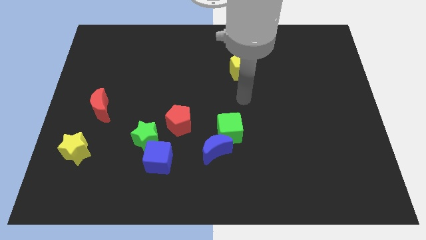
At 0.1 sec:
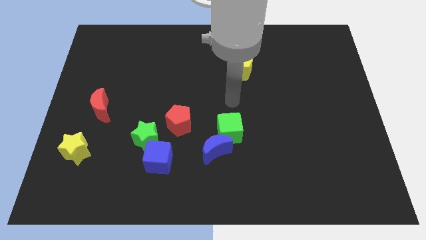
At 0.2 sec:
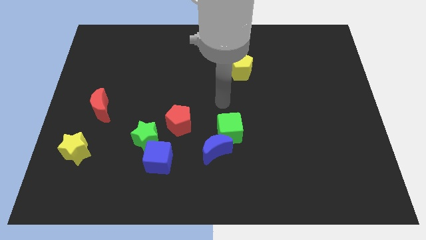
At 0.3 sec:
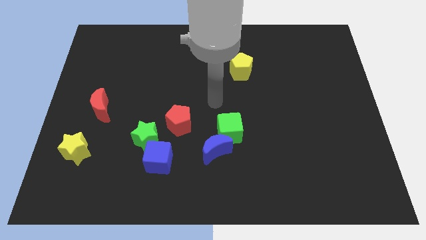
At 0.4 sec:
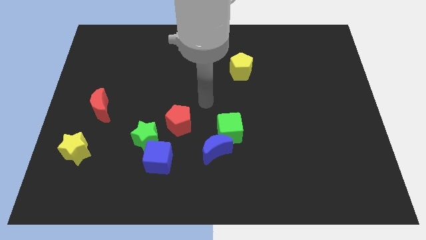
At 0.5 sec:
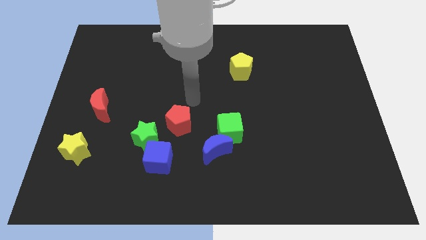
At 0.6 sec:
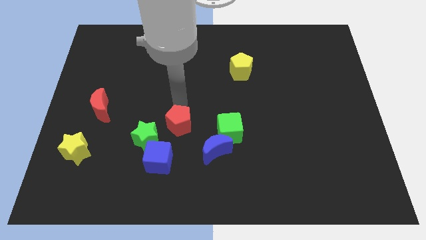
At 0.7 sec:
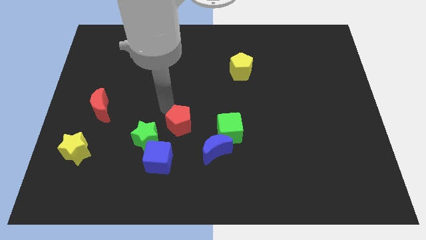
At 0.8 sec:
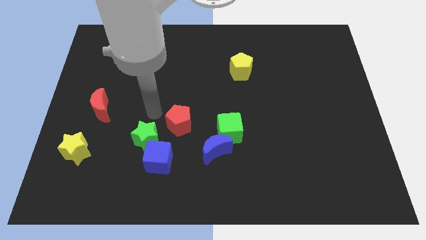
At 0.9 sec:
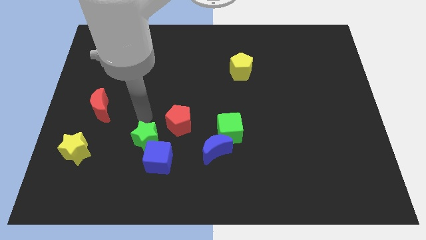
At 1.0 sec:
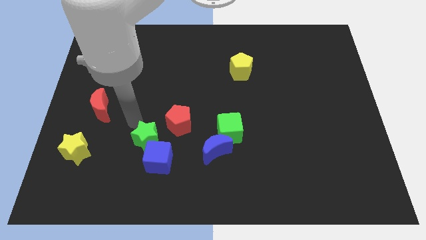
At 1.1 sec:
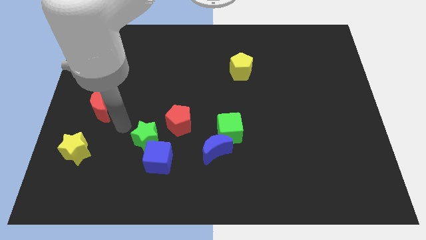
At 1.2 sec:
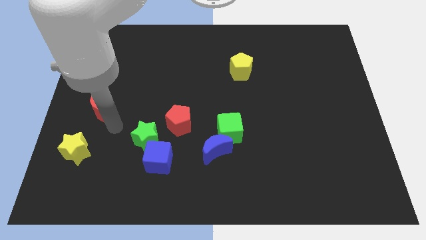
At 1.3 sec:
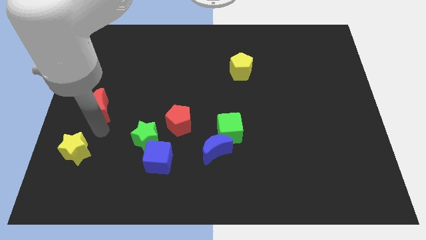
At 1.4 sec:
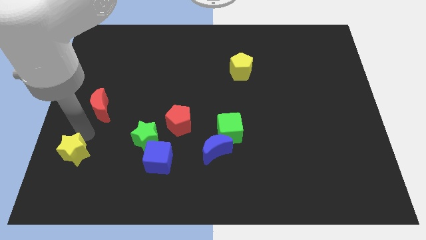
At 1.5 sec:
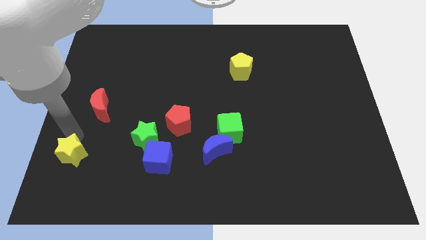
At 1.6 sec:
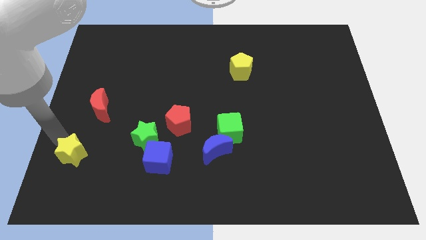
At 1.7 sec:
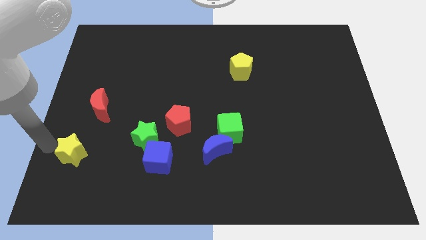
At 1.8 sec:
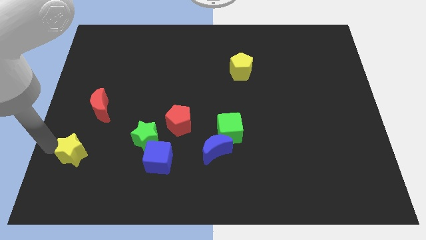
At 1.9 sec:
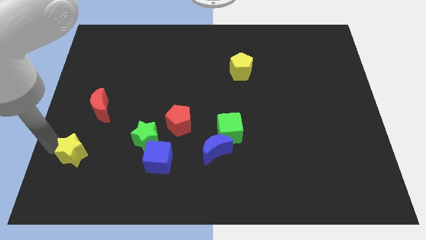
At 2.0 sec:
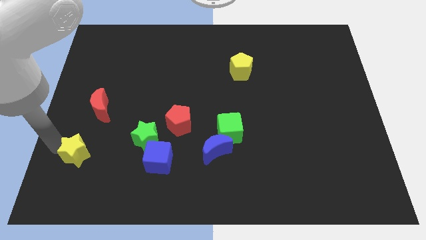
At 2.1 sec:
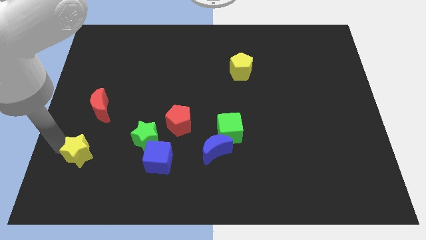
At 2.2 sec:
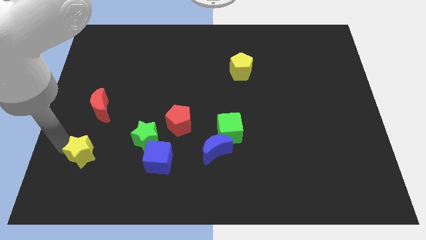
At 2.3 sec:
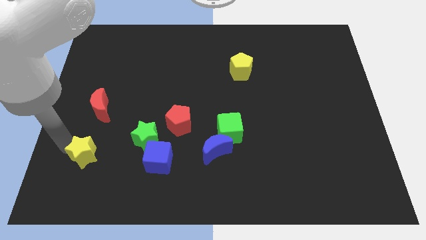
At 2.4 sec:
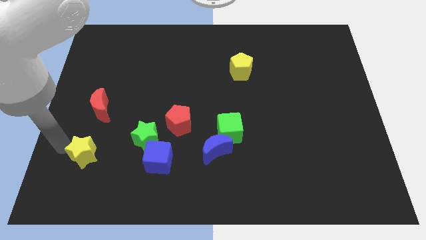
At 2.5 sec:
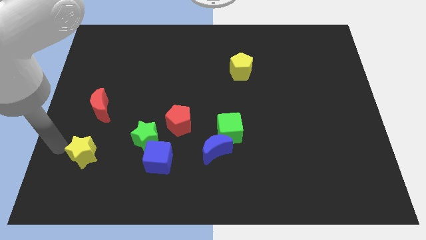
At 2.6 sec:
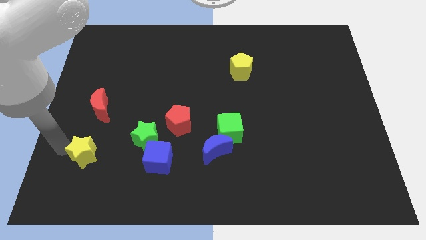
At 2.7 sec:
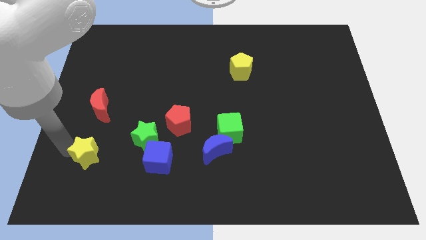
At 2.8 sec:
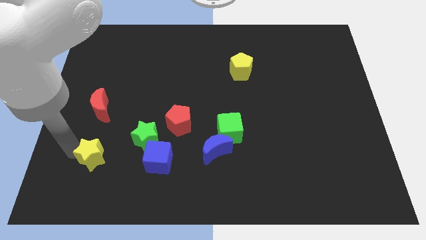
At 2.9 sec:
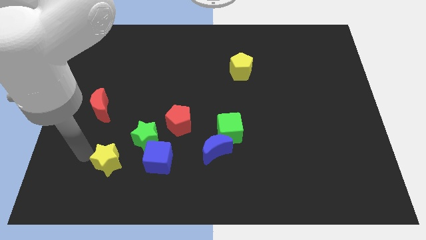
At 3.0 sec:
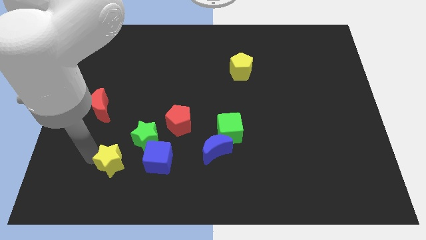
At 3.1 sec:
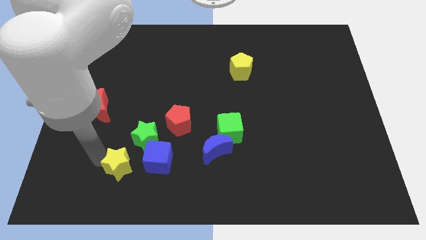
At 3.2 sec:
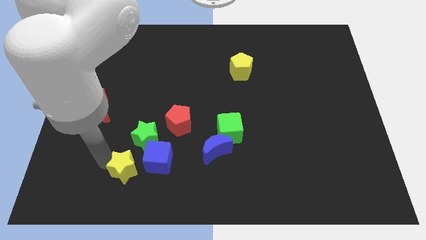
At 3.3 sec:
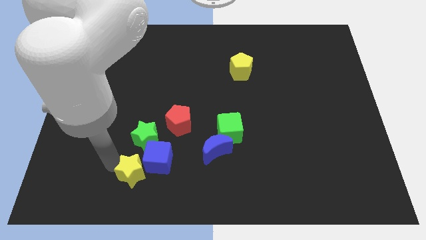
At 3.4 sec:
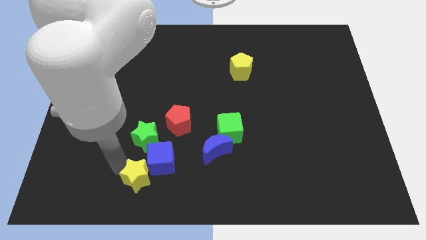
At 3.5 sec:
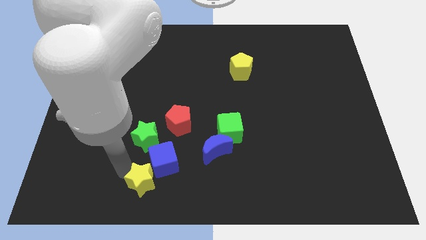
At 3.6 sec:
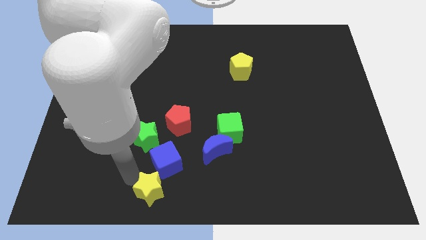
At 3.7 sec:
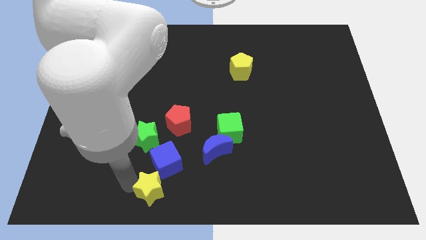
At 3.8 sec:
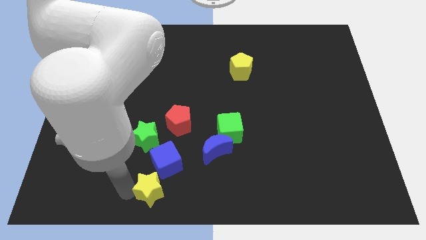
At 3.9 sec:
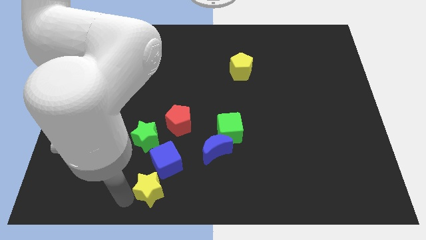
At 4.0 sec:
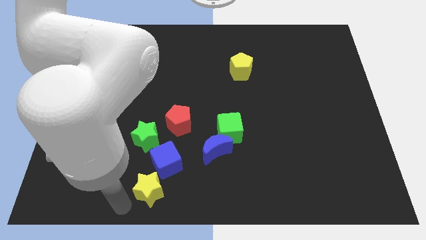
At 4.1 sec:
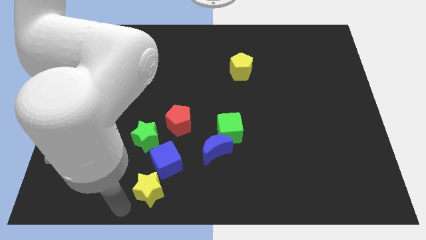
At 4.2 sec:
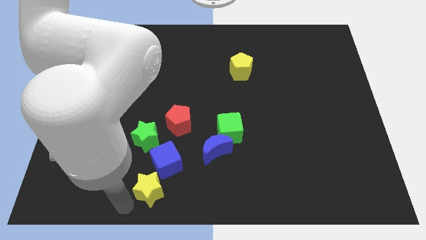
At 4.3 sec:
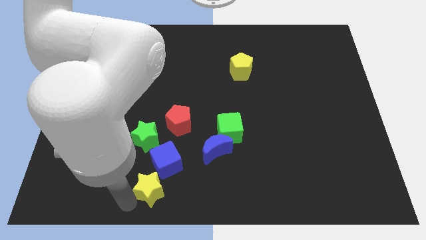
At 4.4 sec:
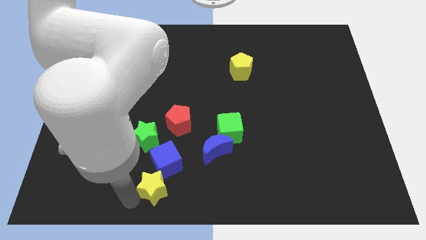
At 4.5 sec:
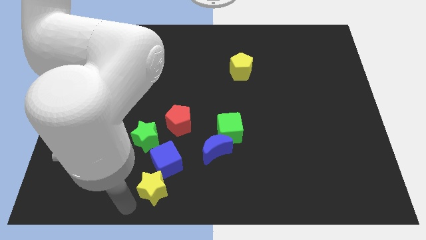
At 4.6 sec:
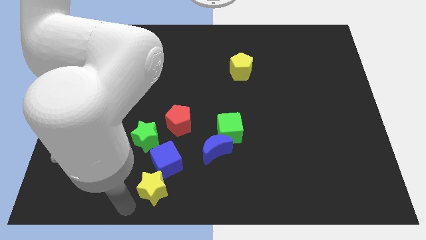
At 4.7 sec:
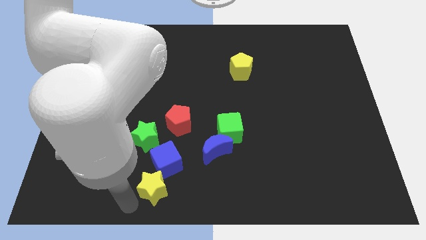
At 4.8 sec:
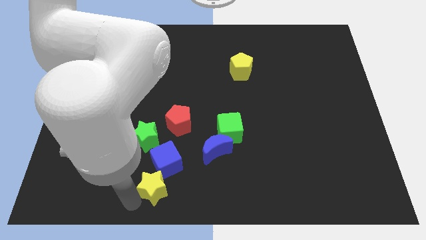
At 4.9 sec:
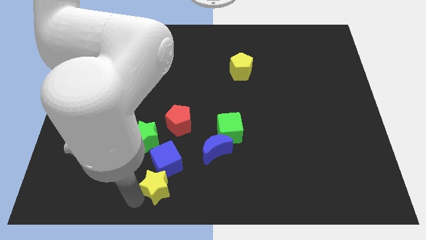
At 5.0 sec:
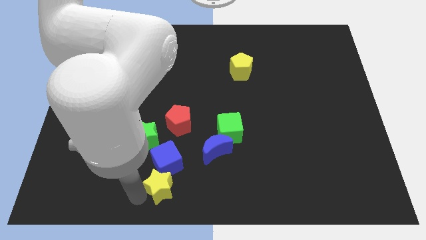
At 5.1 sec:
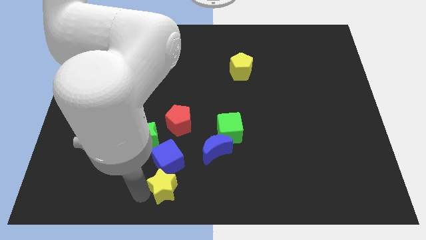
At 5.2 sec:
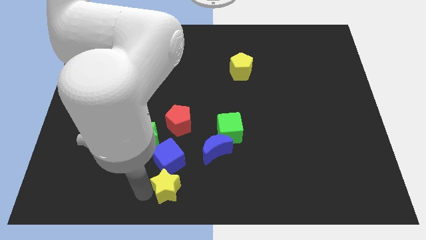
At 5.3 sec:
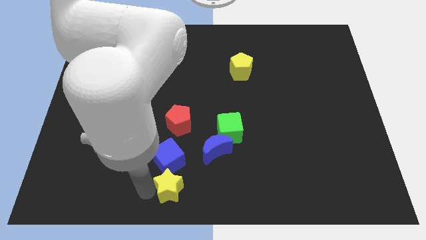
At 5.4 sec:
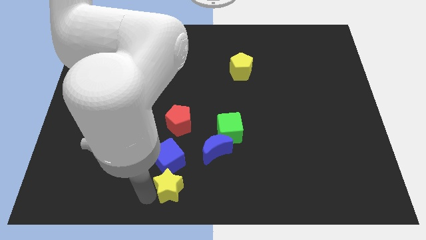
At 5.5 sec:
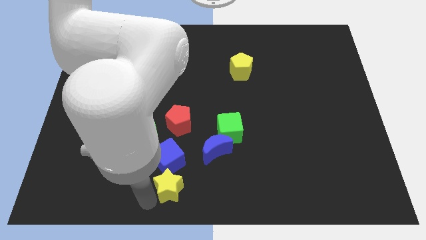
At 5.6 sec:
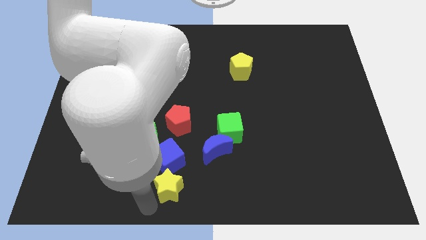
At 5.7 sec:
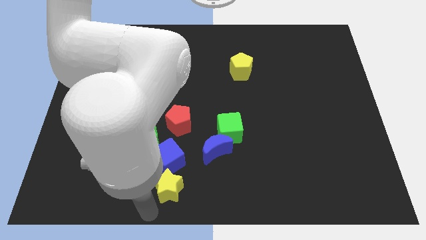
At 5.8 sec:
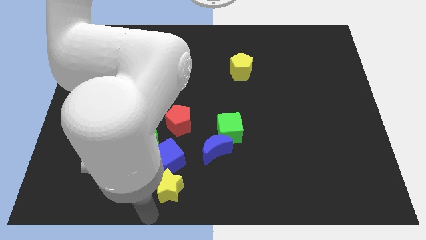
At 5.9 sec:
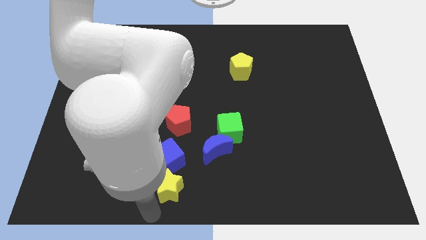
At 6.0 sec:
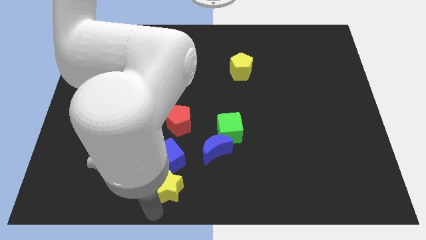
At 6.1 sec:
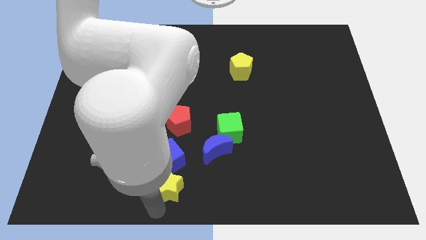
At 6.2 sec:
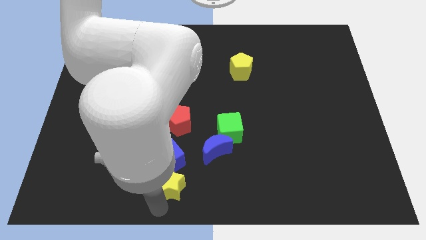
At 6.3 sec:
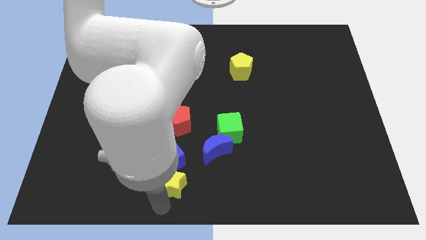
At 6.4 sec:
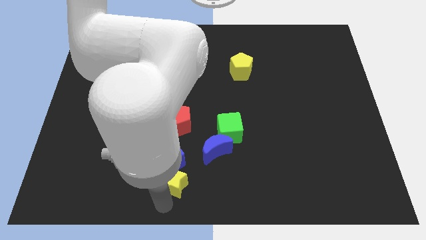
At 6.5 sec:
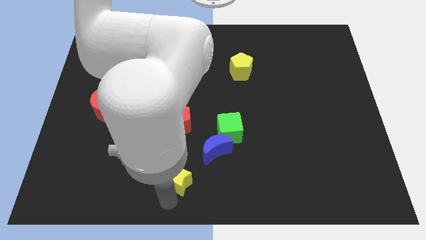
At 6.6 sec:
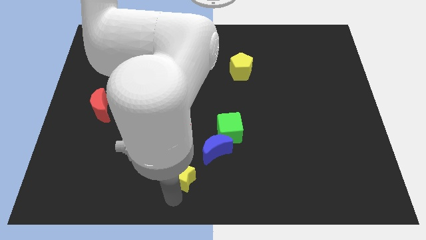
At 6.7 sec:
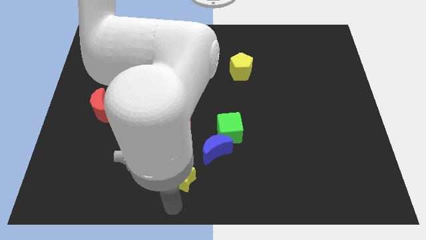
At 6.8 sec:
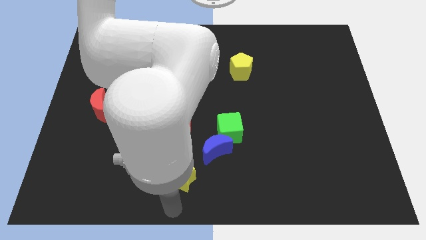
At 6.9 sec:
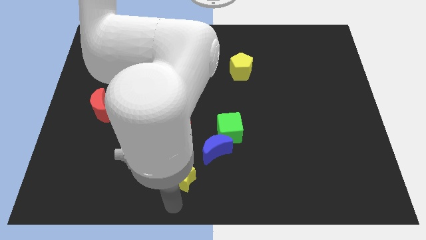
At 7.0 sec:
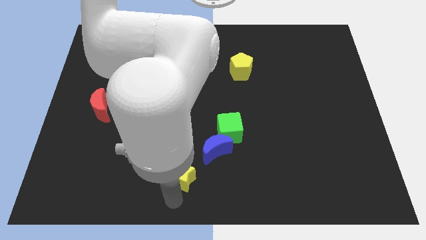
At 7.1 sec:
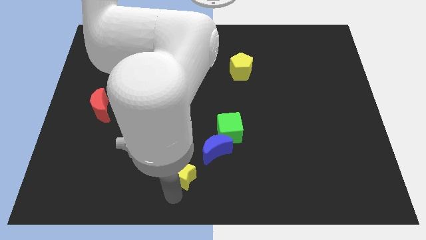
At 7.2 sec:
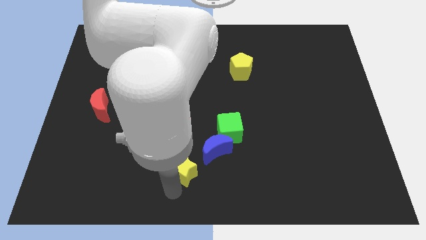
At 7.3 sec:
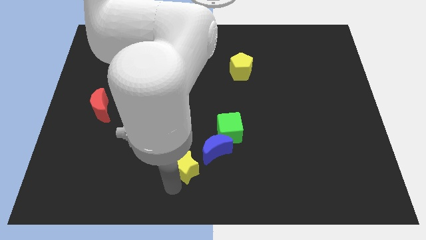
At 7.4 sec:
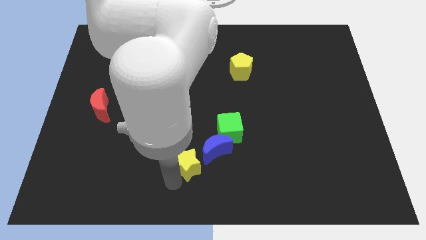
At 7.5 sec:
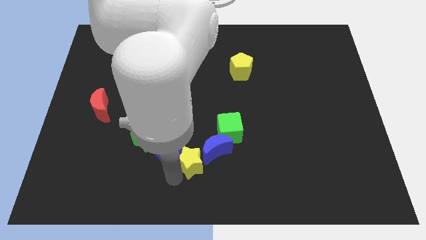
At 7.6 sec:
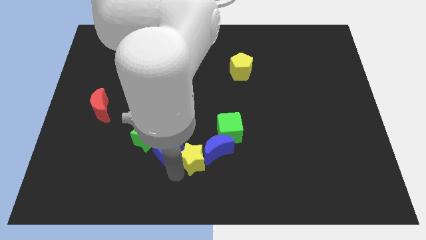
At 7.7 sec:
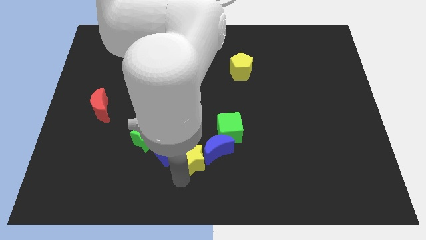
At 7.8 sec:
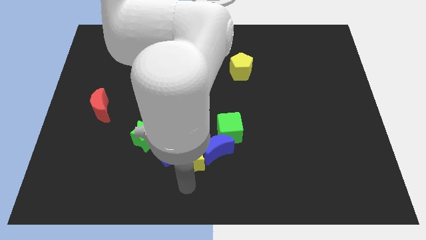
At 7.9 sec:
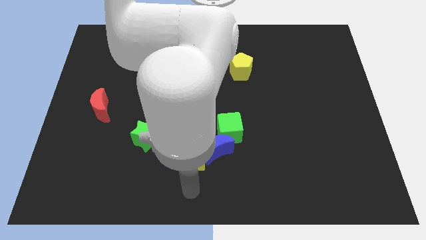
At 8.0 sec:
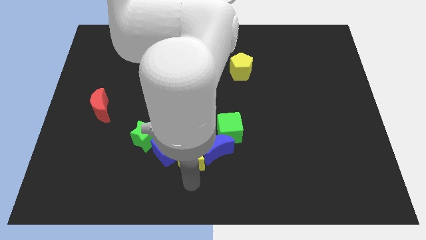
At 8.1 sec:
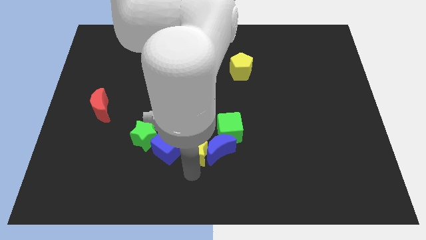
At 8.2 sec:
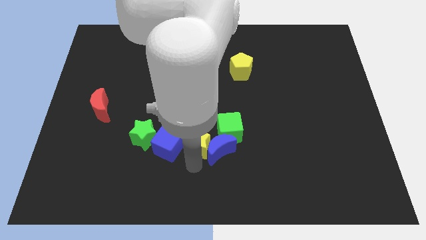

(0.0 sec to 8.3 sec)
move the yellow star diagonally up and to the right of the blue cube
